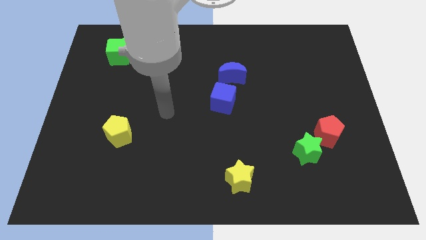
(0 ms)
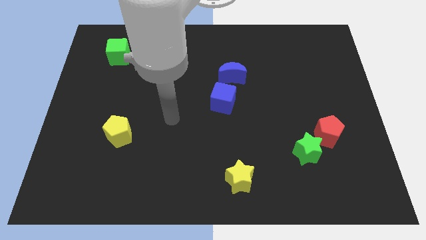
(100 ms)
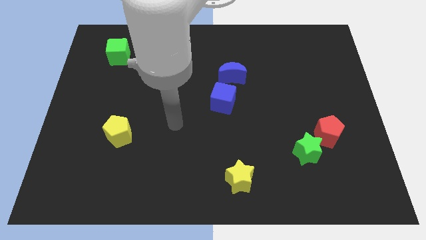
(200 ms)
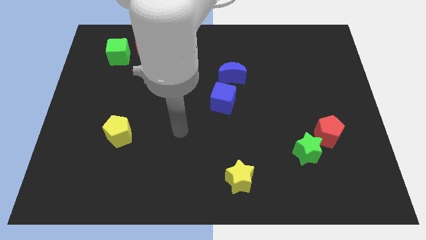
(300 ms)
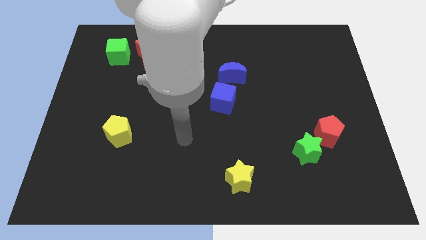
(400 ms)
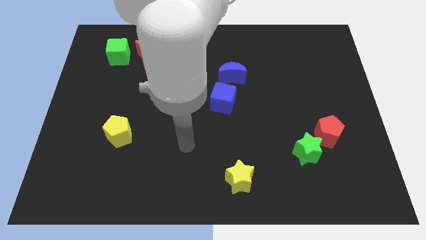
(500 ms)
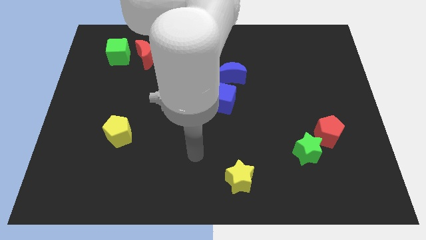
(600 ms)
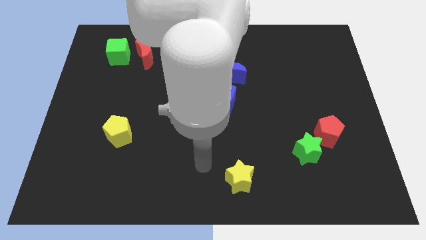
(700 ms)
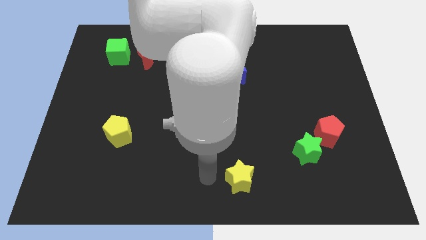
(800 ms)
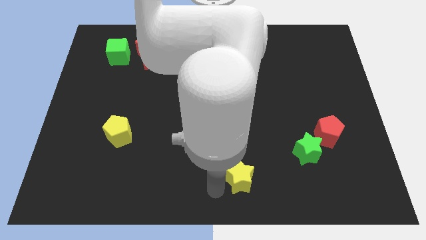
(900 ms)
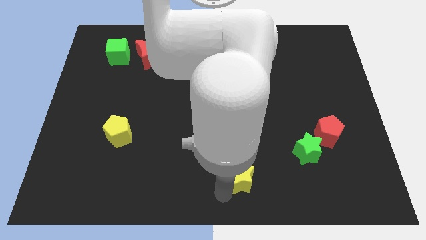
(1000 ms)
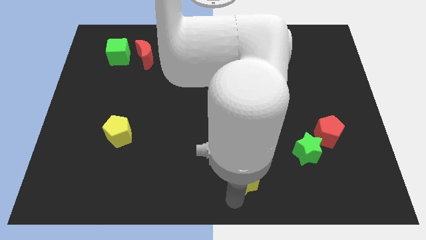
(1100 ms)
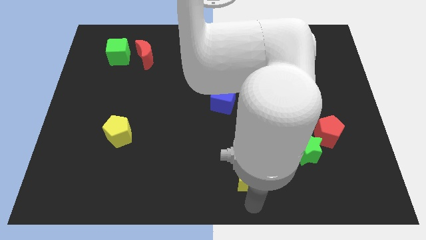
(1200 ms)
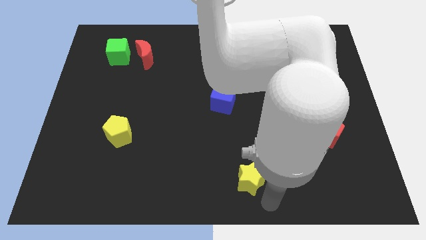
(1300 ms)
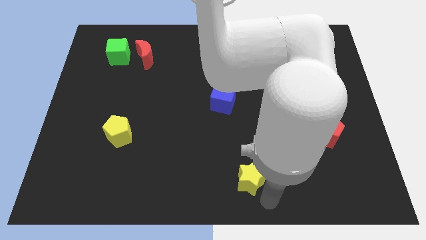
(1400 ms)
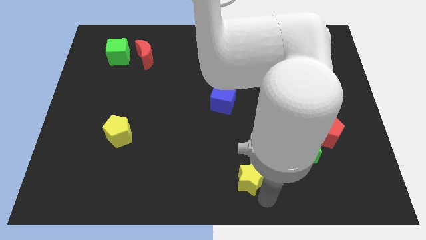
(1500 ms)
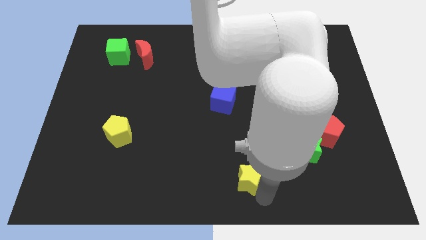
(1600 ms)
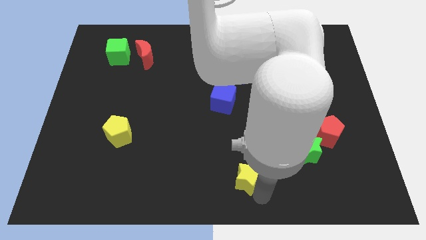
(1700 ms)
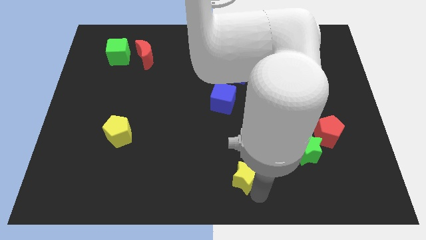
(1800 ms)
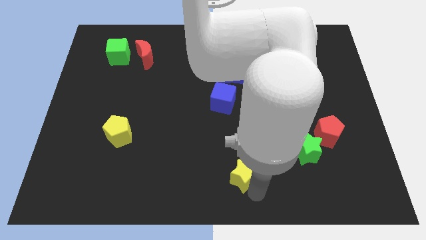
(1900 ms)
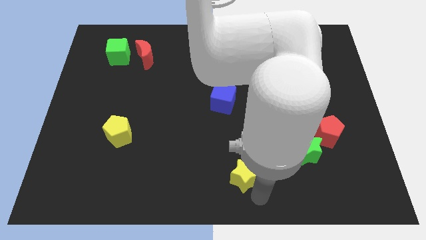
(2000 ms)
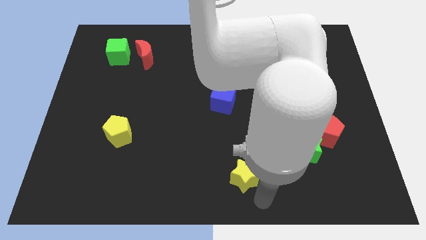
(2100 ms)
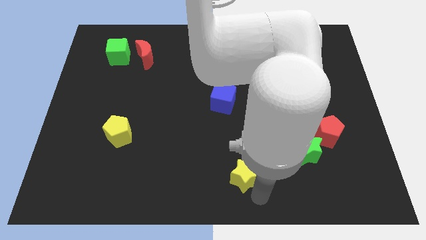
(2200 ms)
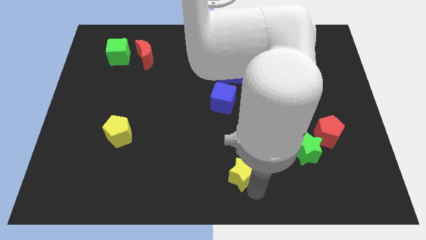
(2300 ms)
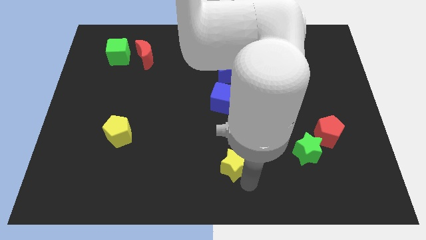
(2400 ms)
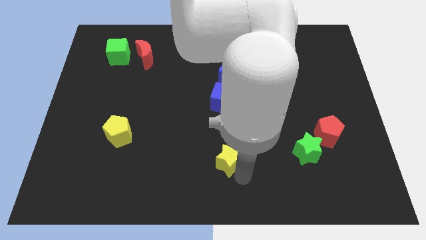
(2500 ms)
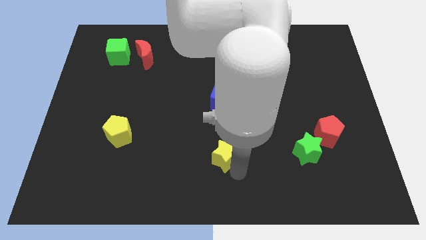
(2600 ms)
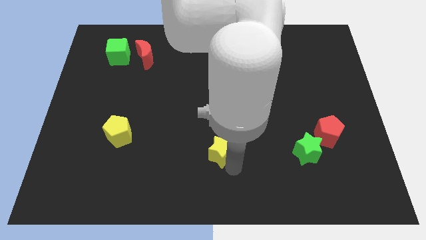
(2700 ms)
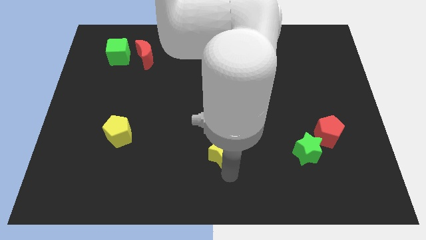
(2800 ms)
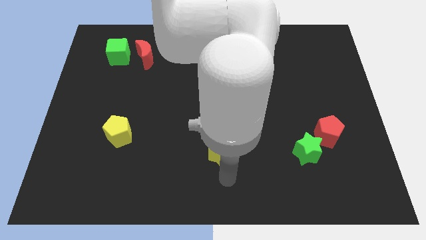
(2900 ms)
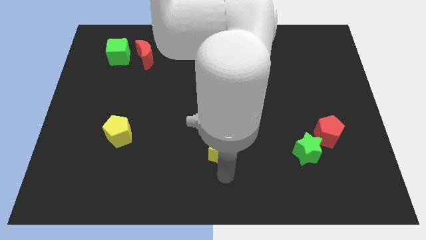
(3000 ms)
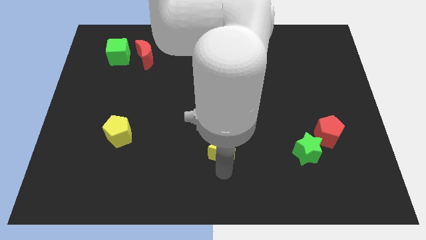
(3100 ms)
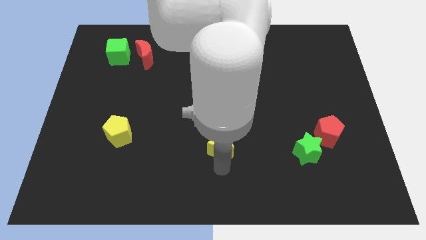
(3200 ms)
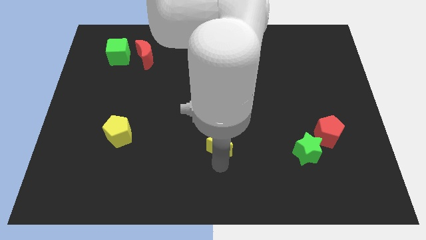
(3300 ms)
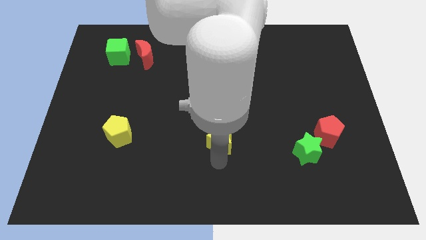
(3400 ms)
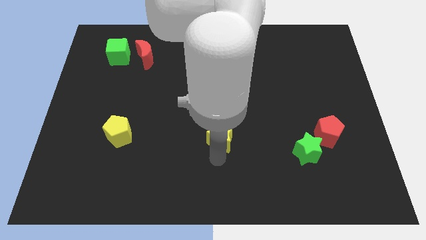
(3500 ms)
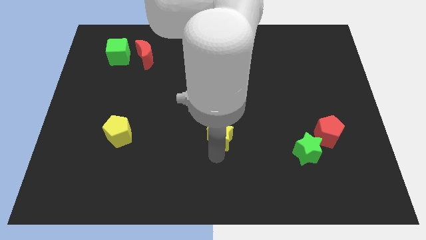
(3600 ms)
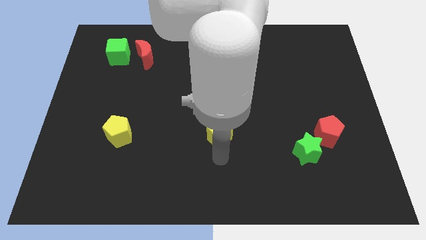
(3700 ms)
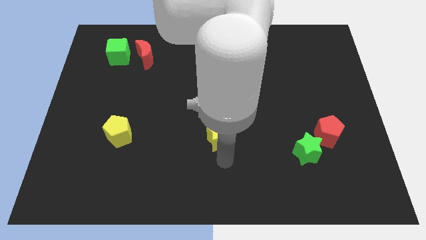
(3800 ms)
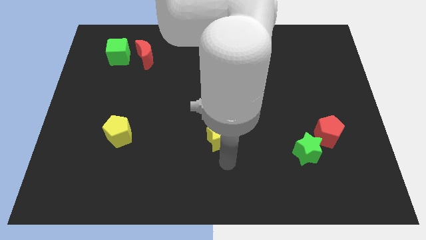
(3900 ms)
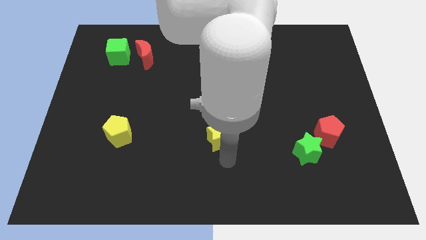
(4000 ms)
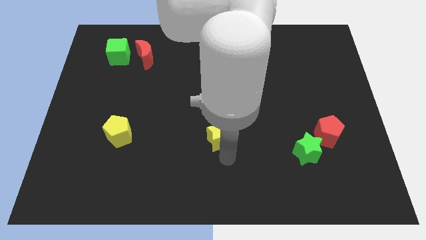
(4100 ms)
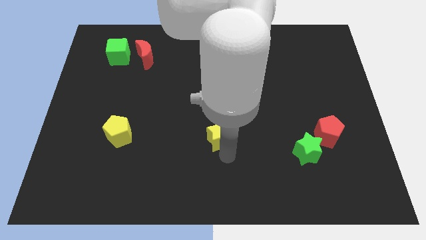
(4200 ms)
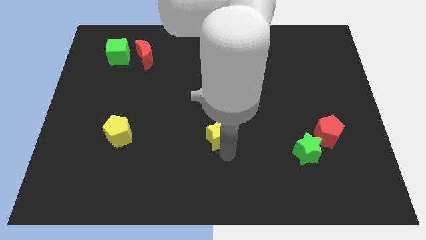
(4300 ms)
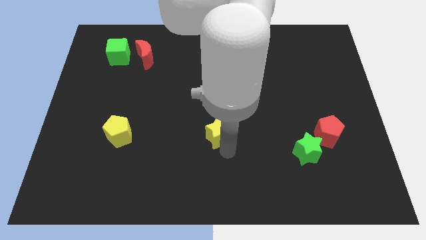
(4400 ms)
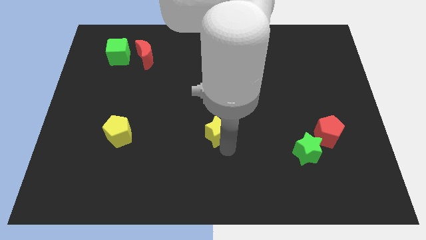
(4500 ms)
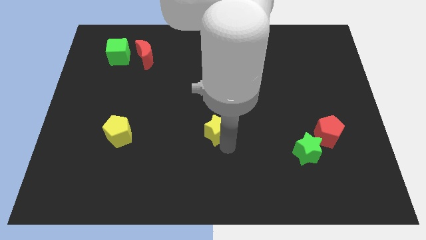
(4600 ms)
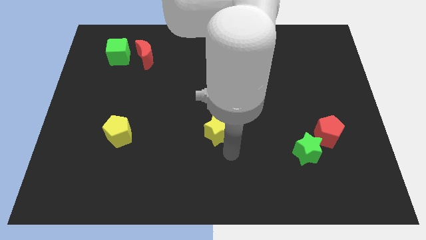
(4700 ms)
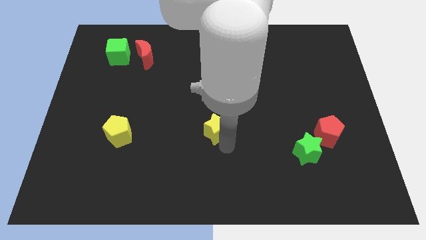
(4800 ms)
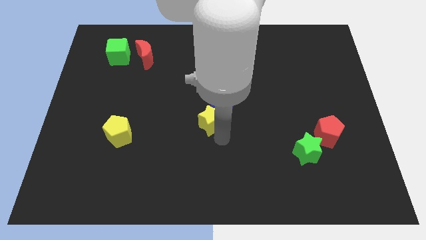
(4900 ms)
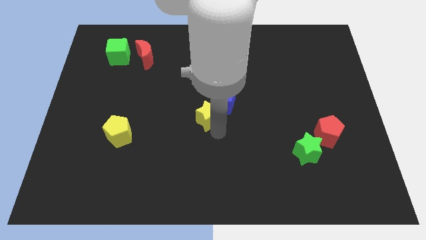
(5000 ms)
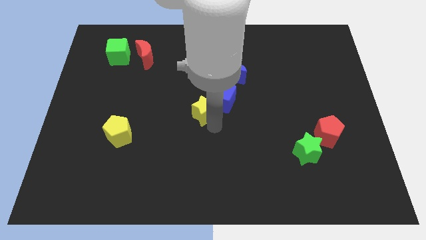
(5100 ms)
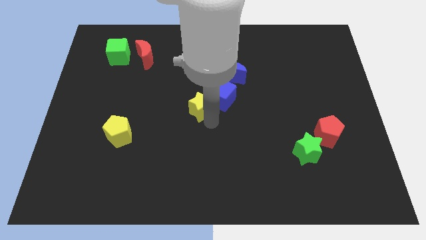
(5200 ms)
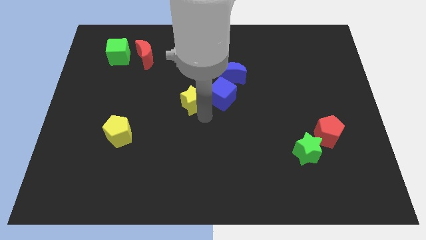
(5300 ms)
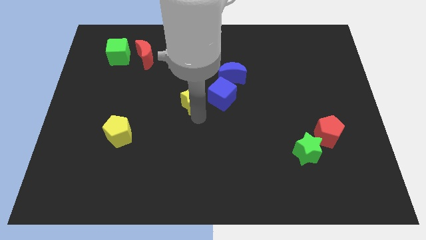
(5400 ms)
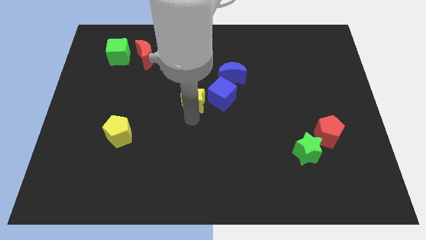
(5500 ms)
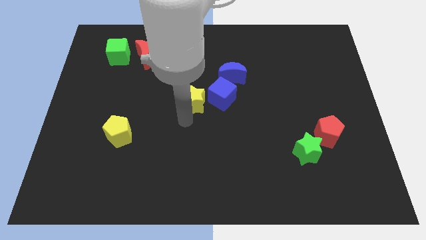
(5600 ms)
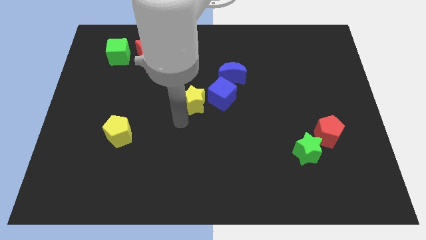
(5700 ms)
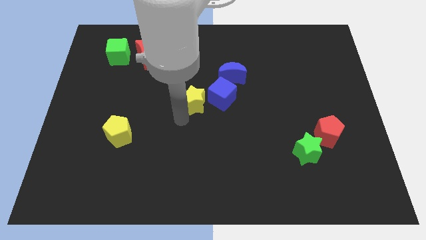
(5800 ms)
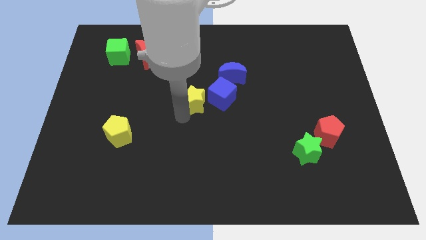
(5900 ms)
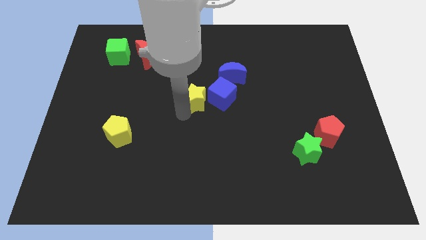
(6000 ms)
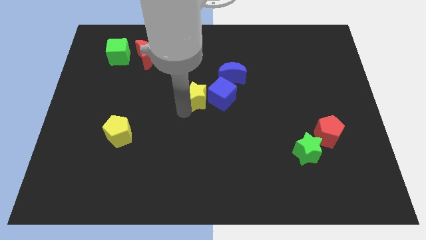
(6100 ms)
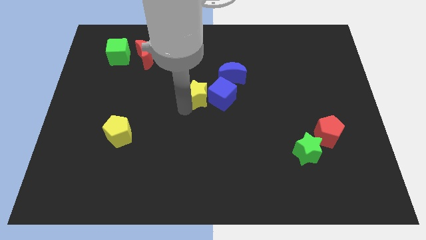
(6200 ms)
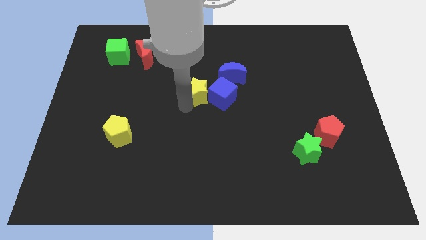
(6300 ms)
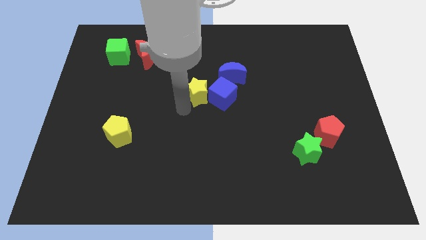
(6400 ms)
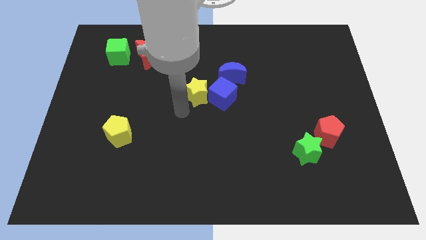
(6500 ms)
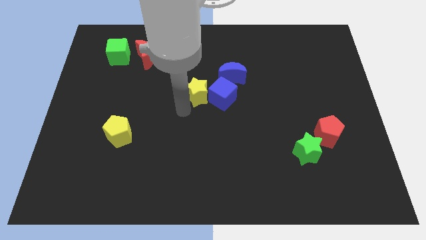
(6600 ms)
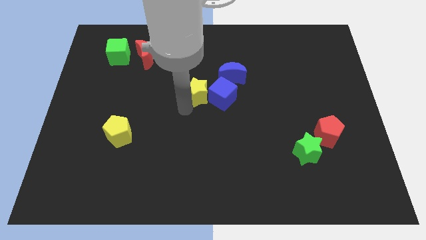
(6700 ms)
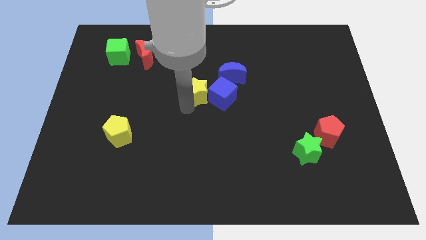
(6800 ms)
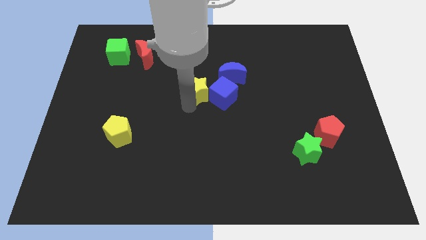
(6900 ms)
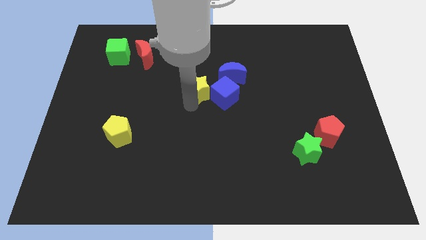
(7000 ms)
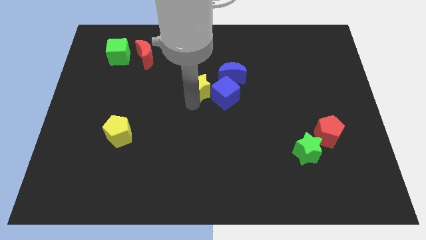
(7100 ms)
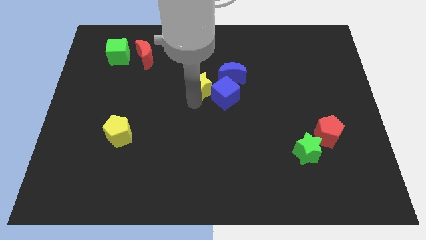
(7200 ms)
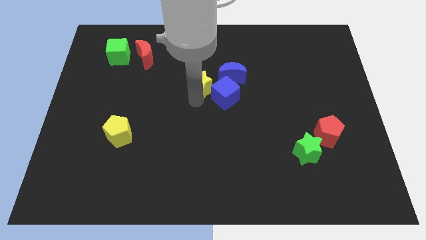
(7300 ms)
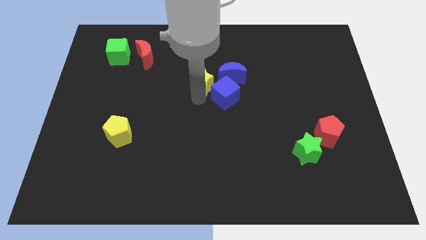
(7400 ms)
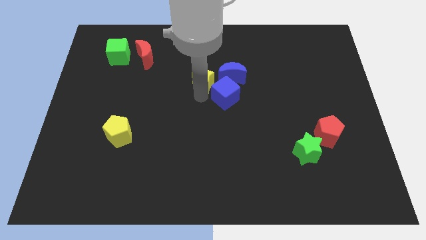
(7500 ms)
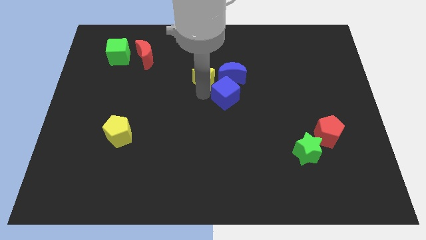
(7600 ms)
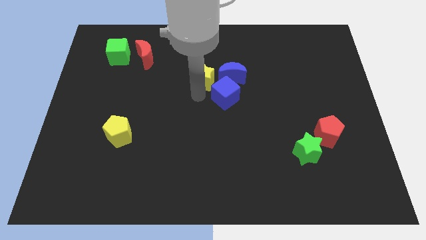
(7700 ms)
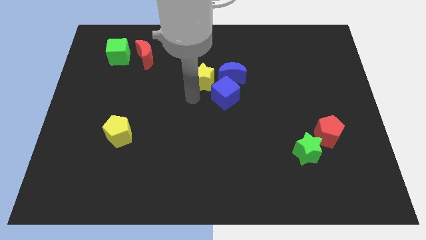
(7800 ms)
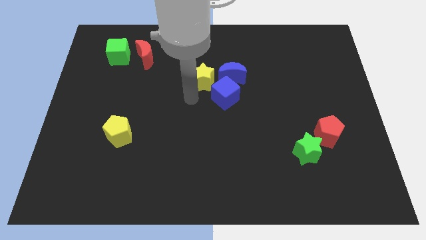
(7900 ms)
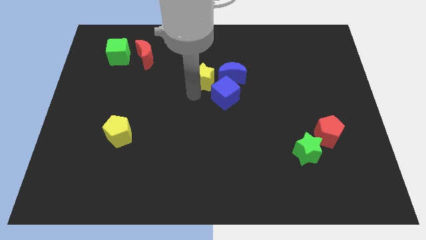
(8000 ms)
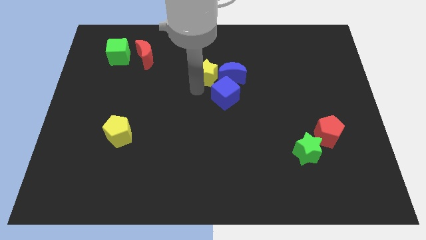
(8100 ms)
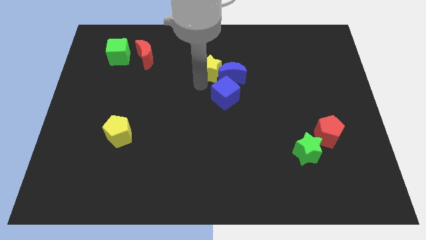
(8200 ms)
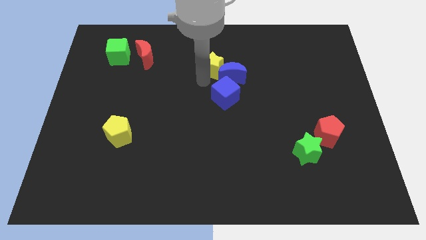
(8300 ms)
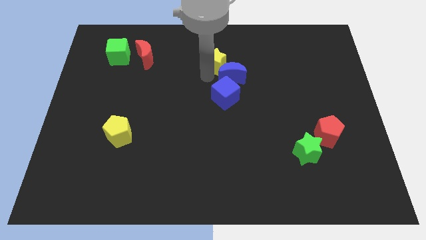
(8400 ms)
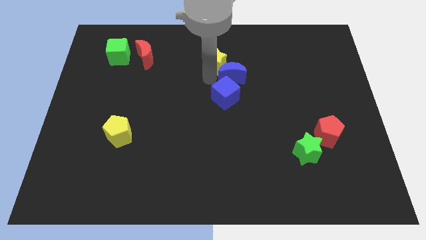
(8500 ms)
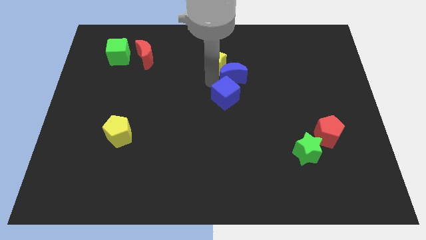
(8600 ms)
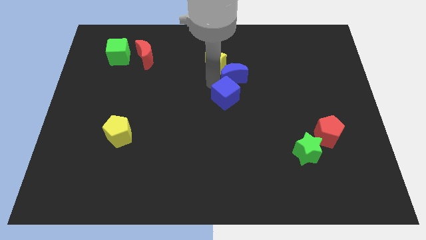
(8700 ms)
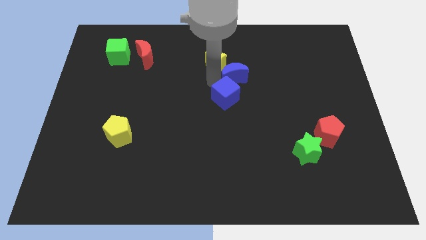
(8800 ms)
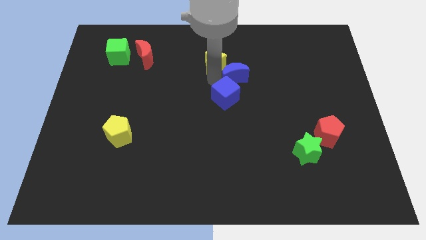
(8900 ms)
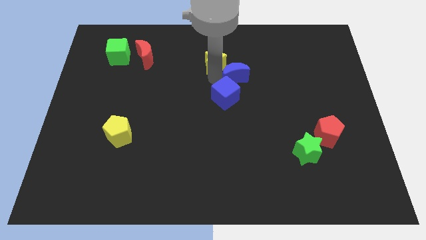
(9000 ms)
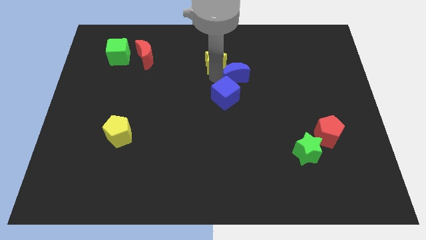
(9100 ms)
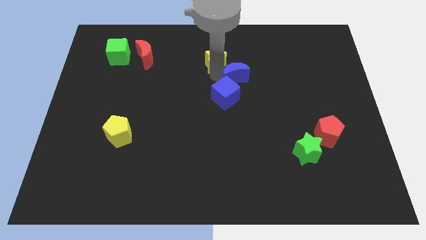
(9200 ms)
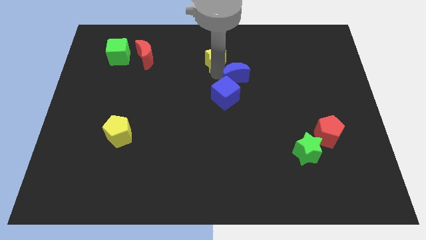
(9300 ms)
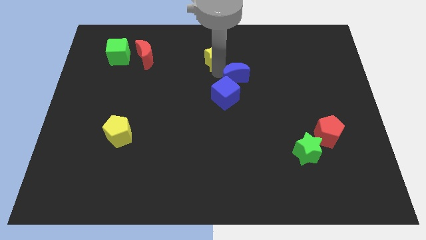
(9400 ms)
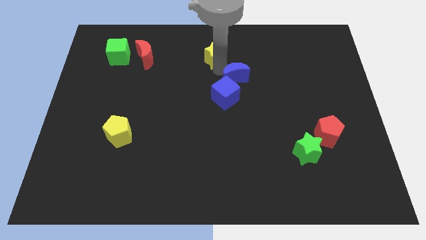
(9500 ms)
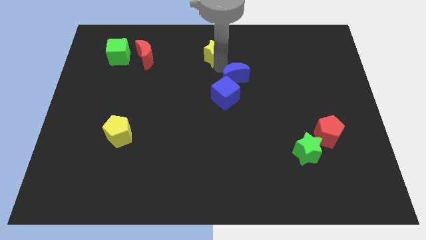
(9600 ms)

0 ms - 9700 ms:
put the yellow star to the top
